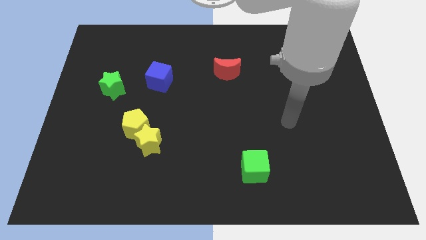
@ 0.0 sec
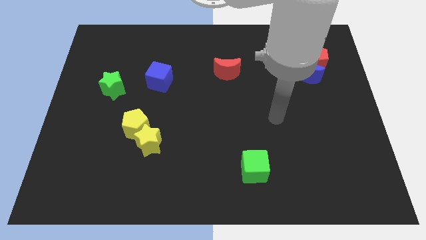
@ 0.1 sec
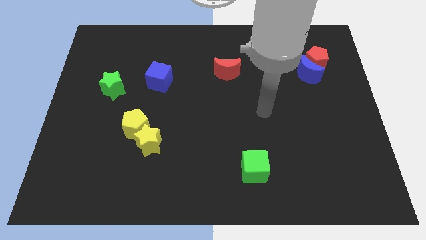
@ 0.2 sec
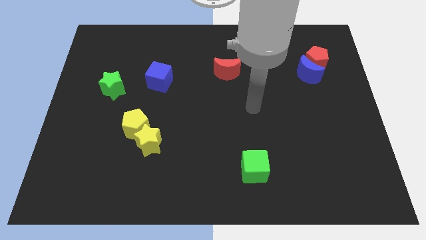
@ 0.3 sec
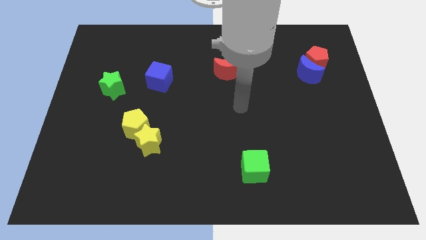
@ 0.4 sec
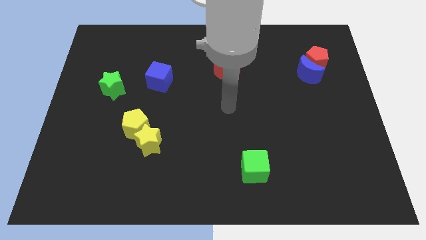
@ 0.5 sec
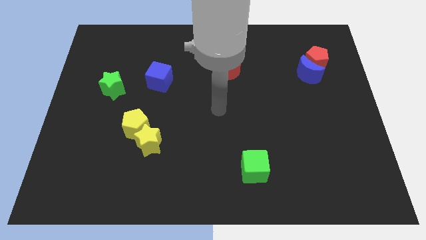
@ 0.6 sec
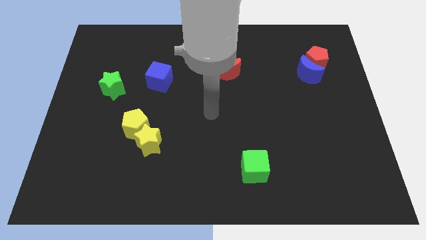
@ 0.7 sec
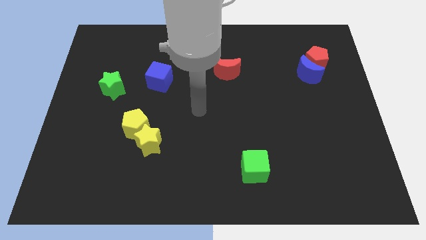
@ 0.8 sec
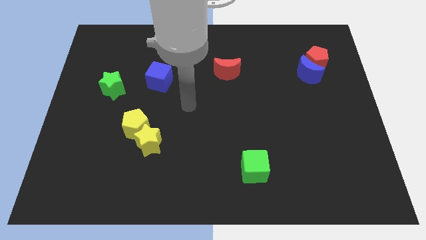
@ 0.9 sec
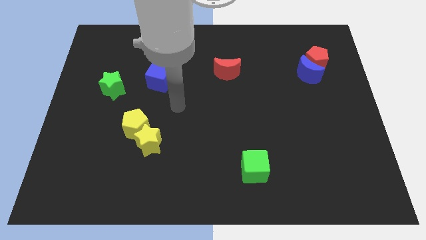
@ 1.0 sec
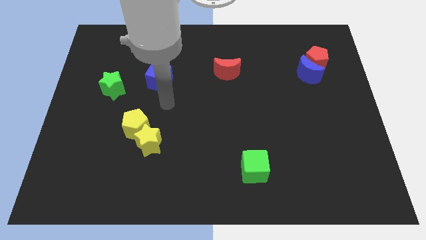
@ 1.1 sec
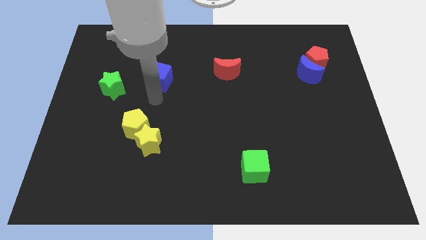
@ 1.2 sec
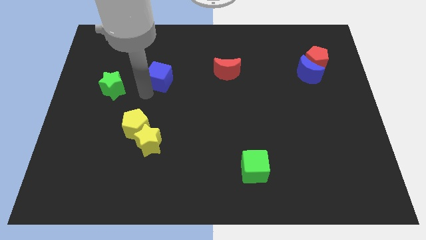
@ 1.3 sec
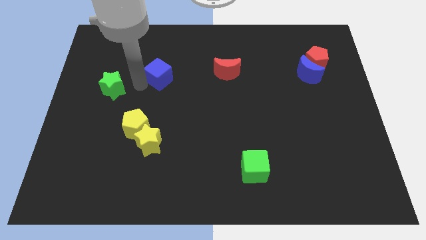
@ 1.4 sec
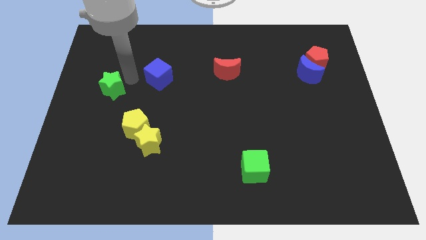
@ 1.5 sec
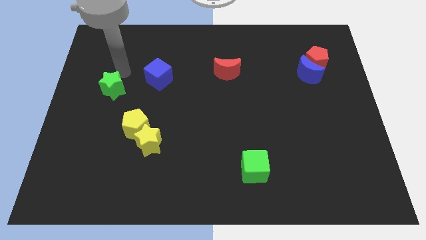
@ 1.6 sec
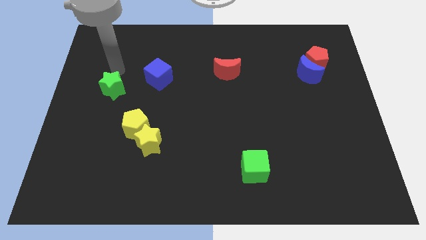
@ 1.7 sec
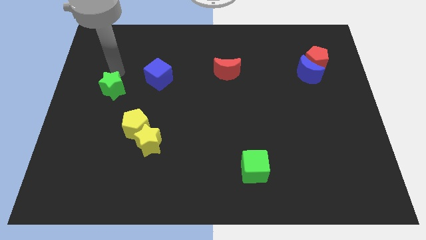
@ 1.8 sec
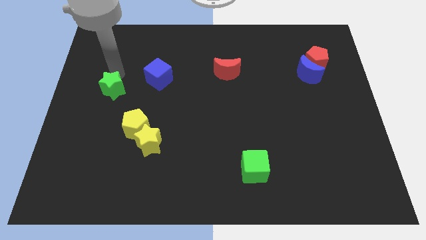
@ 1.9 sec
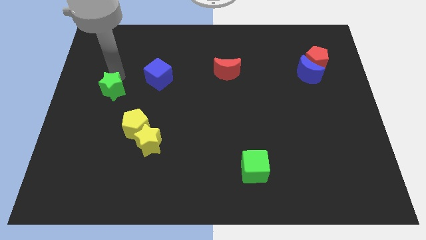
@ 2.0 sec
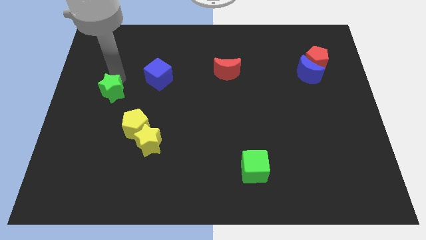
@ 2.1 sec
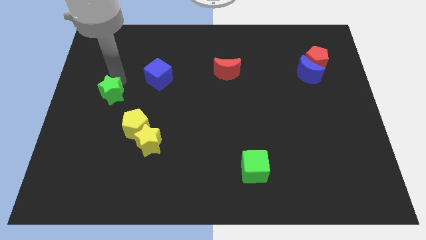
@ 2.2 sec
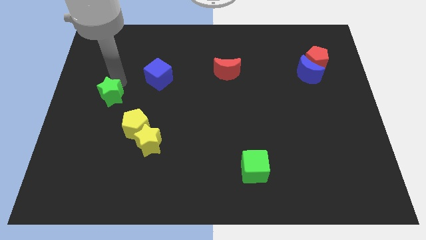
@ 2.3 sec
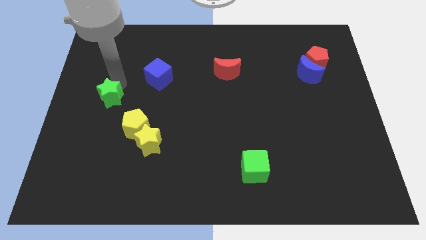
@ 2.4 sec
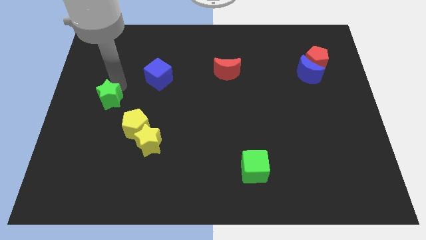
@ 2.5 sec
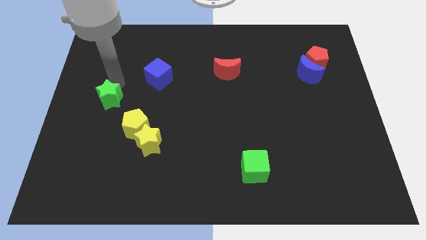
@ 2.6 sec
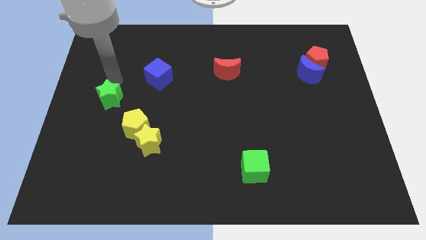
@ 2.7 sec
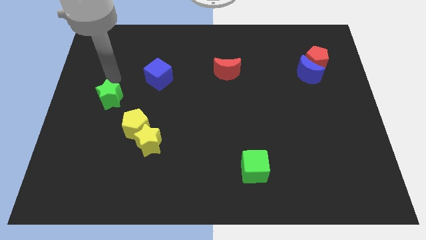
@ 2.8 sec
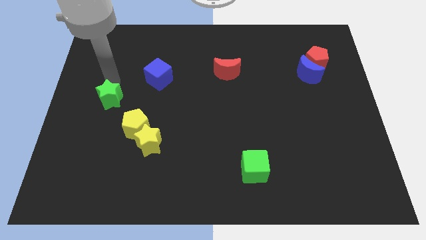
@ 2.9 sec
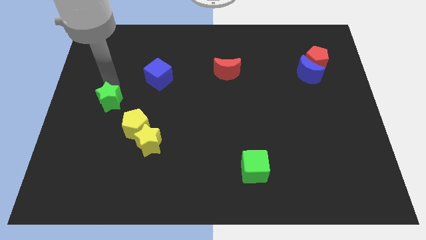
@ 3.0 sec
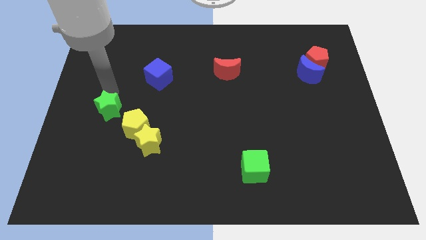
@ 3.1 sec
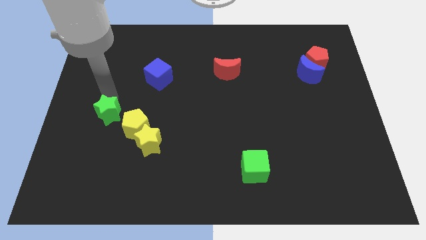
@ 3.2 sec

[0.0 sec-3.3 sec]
move the green star down a bit

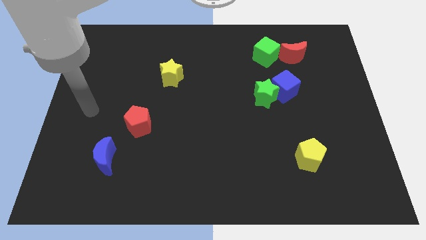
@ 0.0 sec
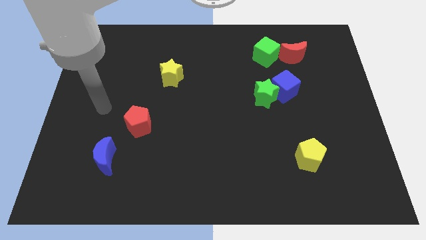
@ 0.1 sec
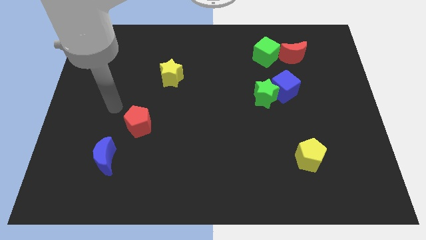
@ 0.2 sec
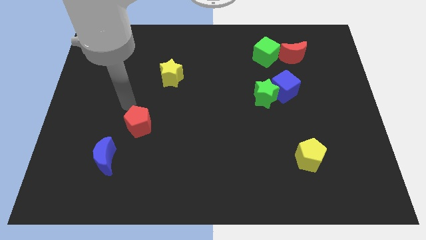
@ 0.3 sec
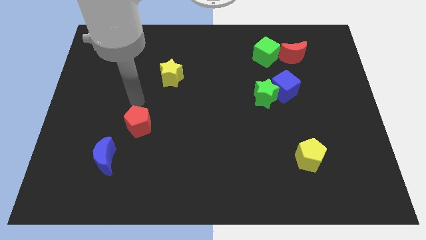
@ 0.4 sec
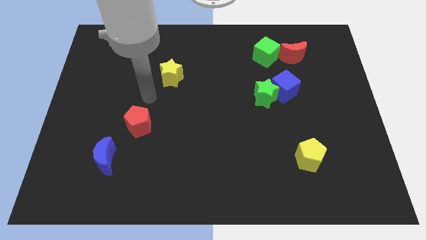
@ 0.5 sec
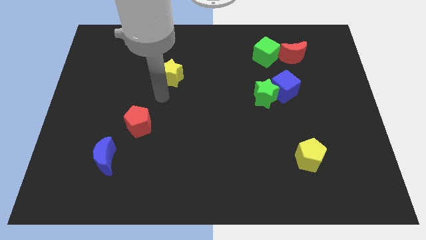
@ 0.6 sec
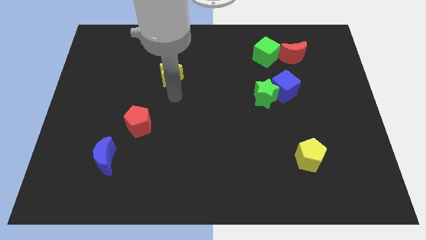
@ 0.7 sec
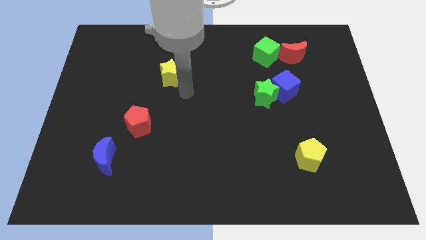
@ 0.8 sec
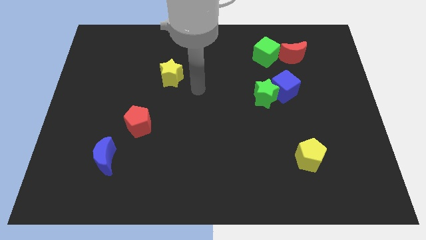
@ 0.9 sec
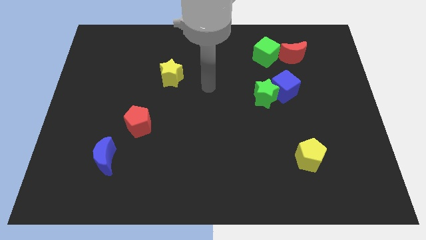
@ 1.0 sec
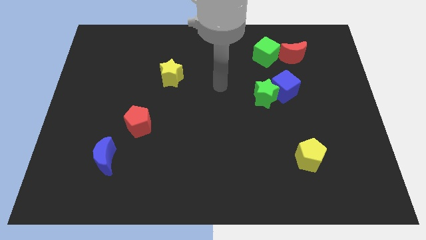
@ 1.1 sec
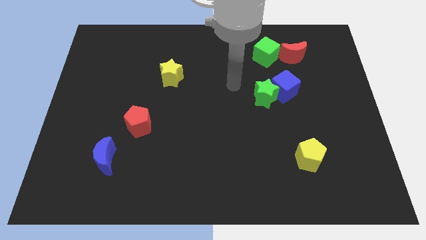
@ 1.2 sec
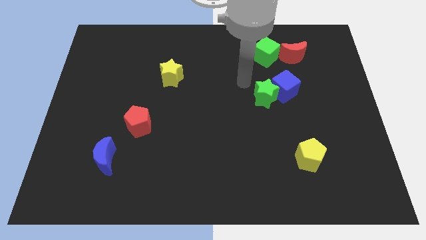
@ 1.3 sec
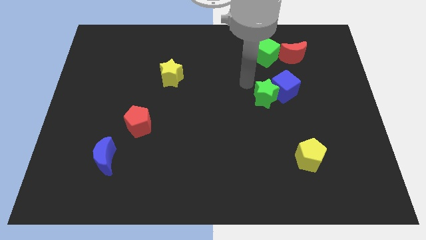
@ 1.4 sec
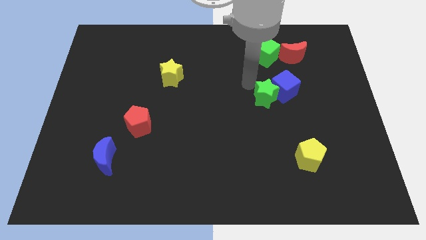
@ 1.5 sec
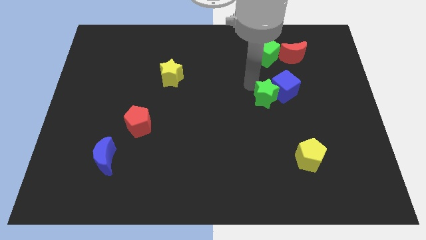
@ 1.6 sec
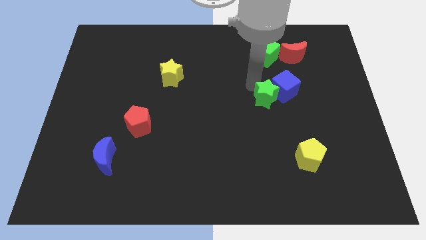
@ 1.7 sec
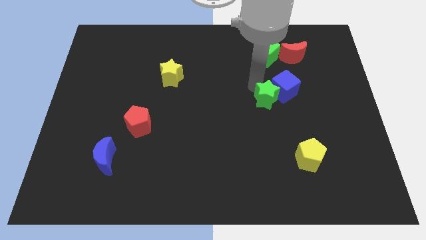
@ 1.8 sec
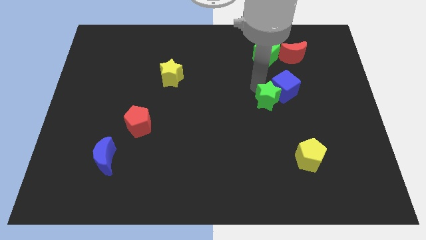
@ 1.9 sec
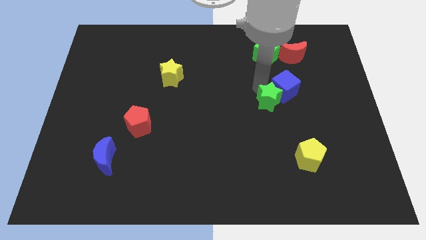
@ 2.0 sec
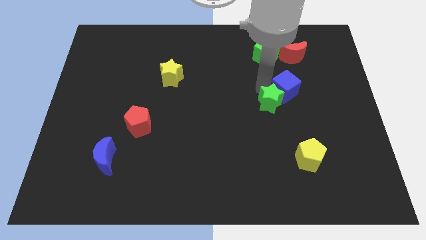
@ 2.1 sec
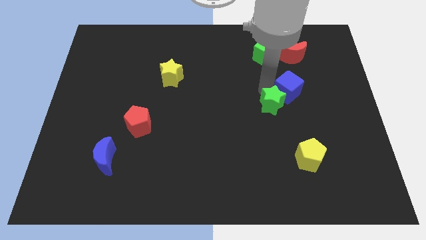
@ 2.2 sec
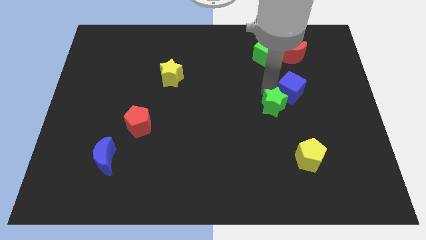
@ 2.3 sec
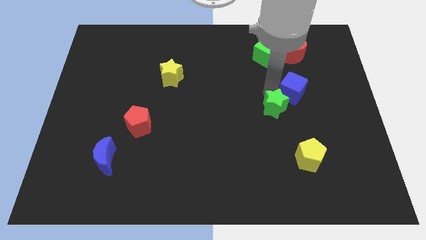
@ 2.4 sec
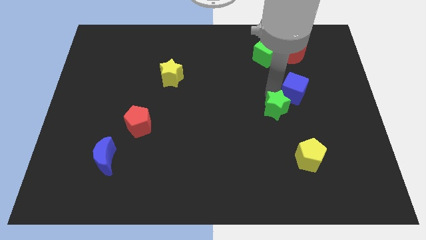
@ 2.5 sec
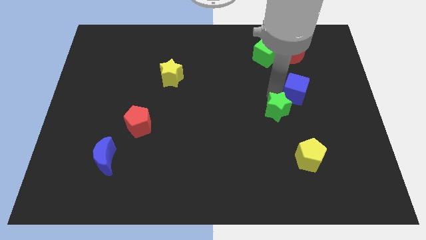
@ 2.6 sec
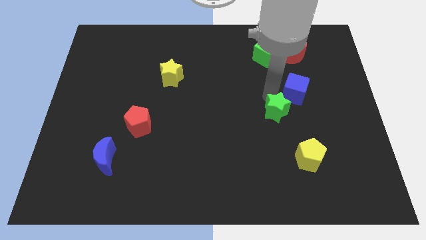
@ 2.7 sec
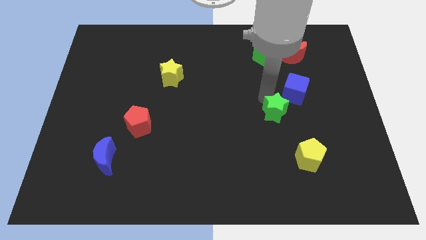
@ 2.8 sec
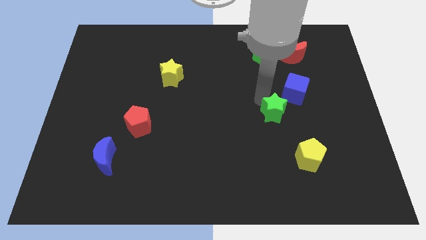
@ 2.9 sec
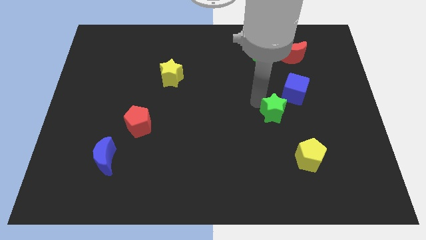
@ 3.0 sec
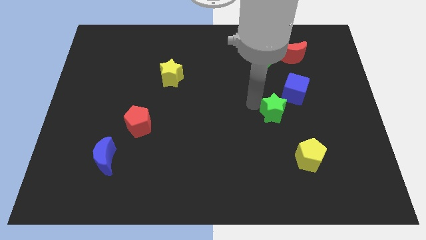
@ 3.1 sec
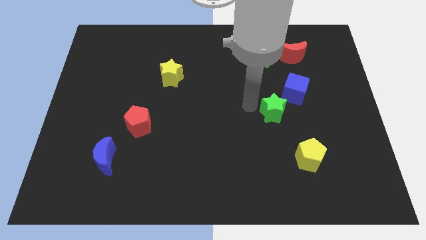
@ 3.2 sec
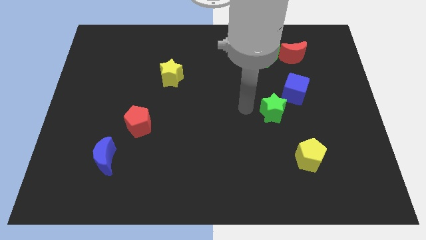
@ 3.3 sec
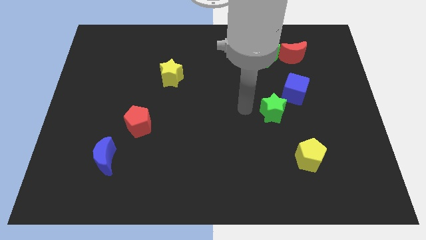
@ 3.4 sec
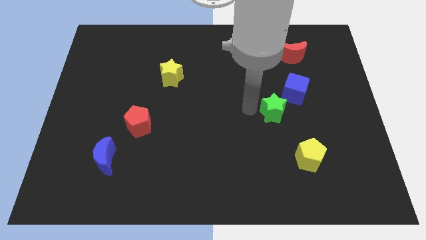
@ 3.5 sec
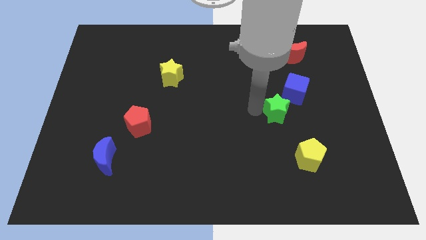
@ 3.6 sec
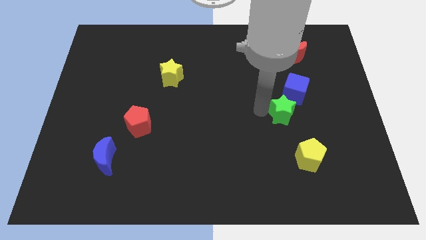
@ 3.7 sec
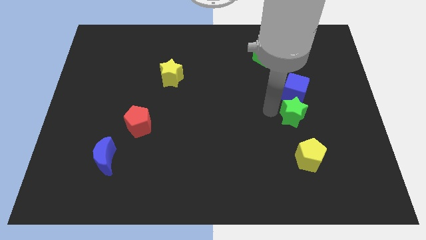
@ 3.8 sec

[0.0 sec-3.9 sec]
slide the green star somewhat downwards and then to the right

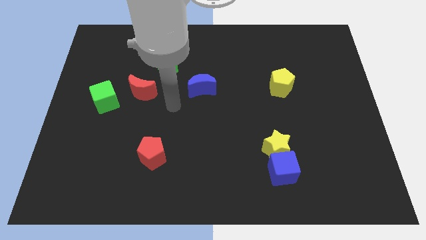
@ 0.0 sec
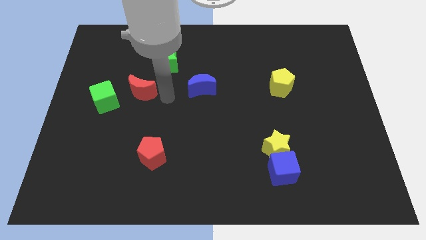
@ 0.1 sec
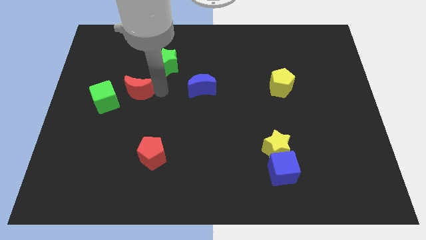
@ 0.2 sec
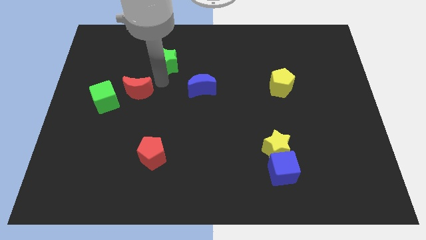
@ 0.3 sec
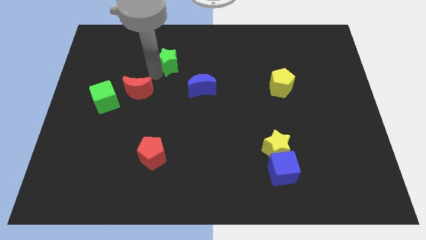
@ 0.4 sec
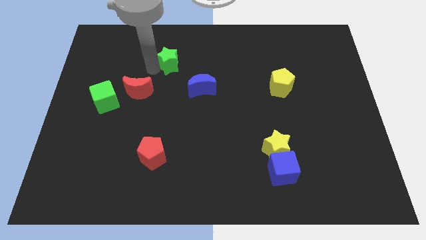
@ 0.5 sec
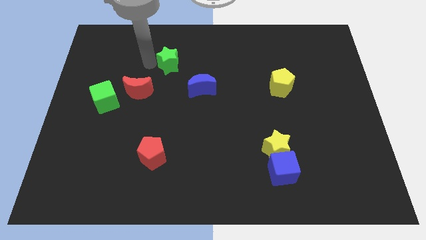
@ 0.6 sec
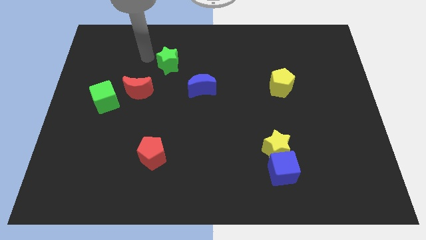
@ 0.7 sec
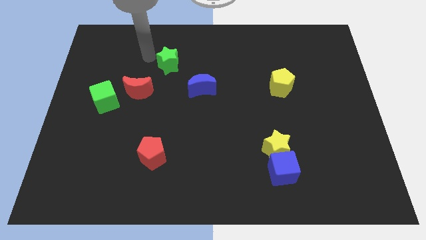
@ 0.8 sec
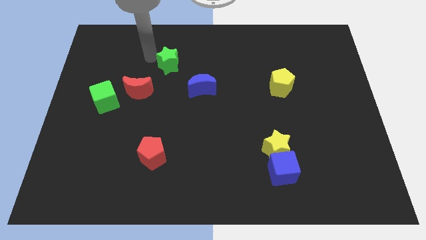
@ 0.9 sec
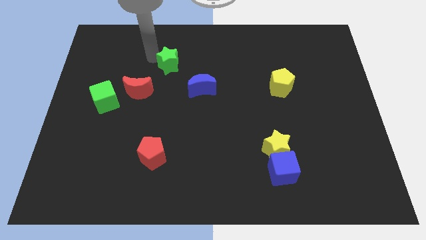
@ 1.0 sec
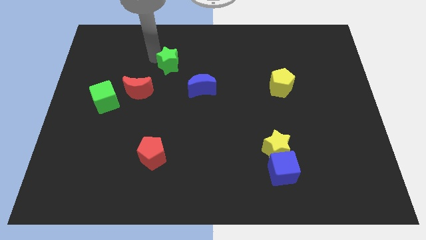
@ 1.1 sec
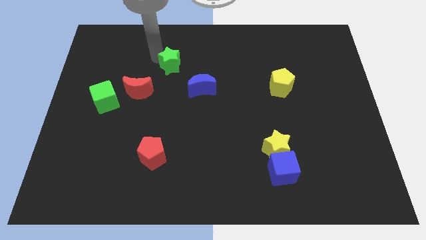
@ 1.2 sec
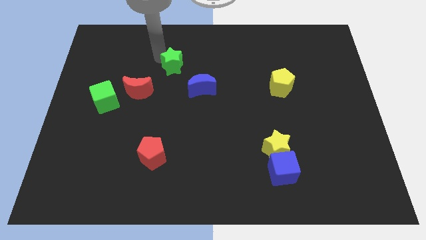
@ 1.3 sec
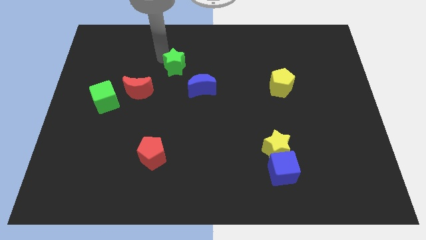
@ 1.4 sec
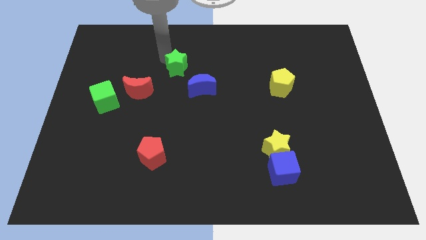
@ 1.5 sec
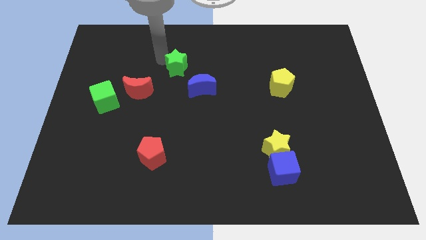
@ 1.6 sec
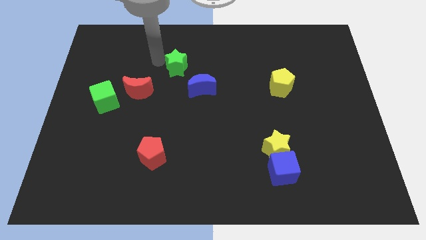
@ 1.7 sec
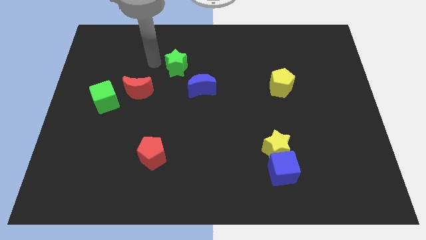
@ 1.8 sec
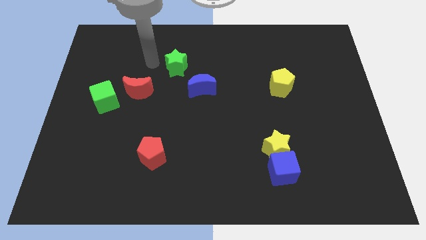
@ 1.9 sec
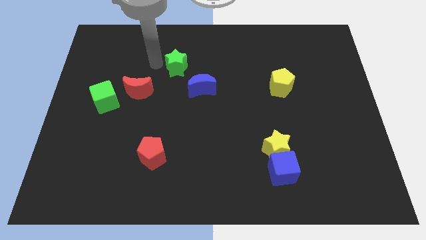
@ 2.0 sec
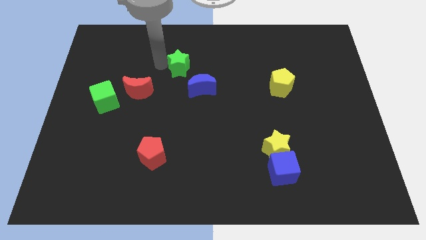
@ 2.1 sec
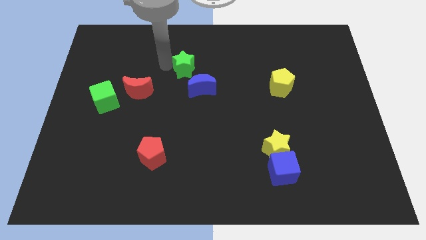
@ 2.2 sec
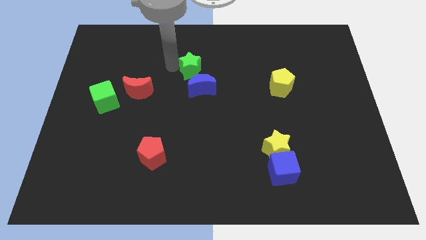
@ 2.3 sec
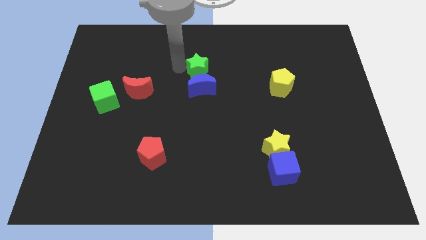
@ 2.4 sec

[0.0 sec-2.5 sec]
push the green star right somewhat
